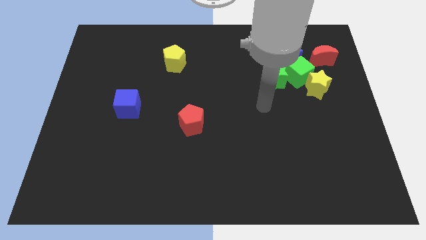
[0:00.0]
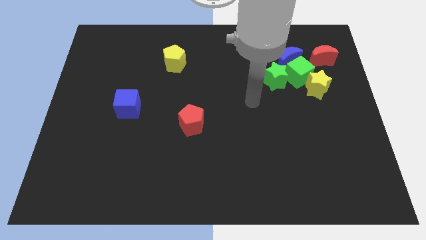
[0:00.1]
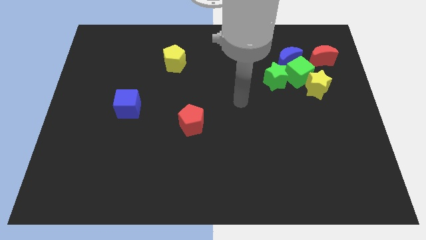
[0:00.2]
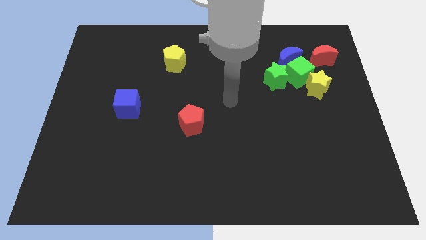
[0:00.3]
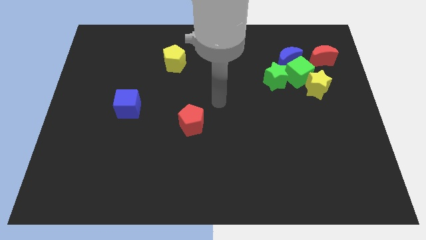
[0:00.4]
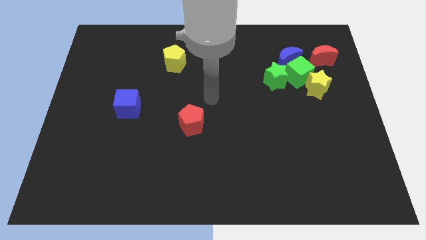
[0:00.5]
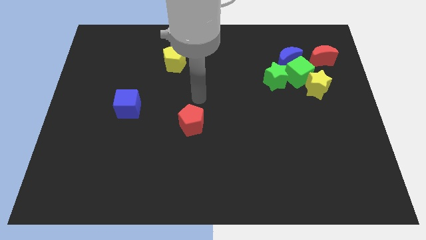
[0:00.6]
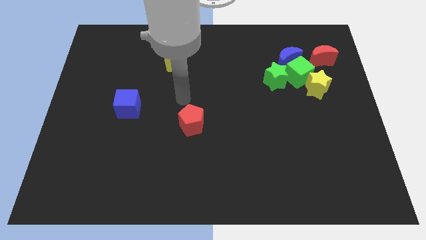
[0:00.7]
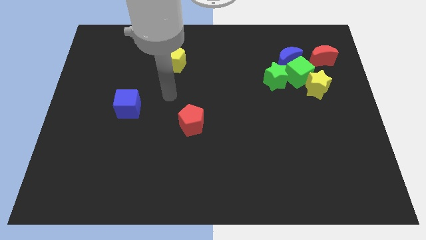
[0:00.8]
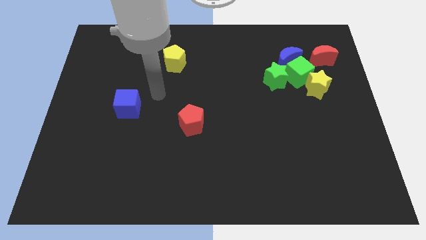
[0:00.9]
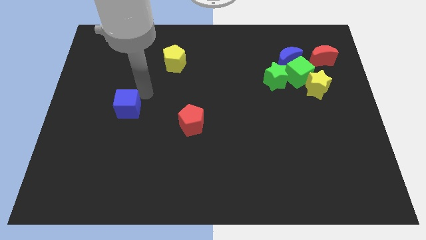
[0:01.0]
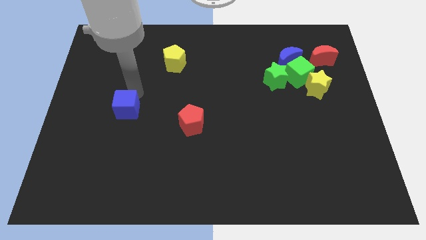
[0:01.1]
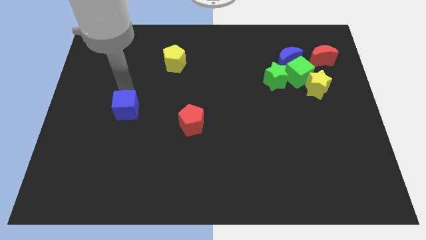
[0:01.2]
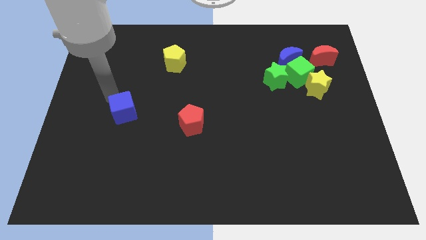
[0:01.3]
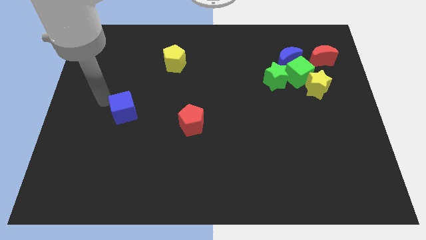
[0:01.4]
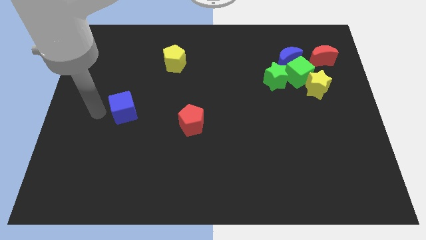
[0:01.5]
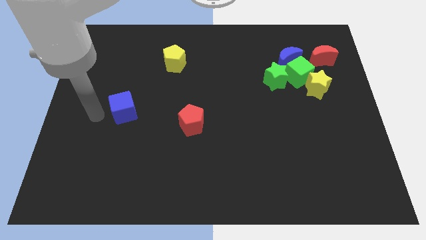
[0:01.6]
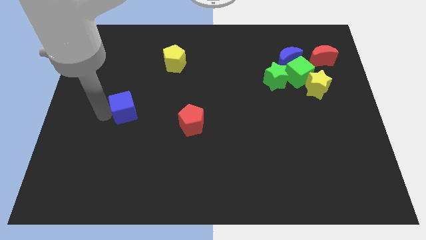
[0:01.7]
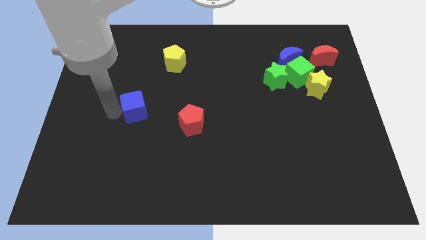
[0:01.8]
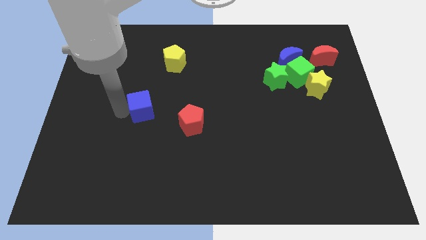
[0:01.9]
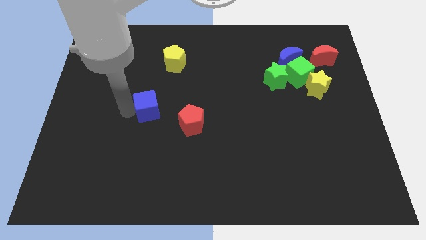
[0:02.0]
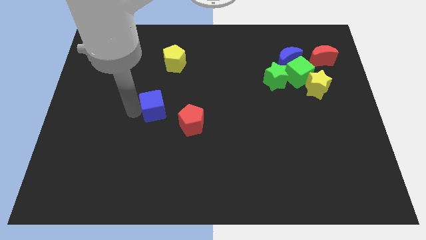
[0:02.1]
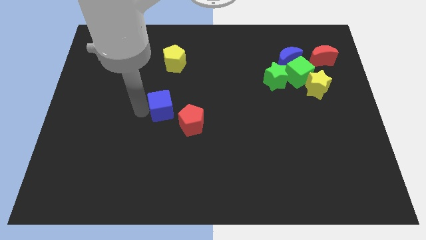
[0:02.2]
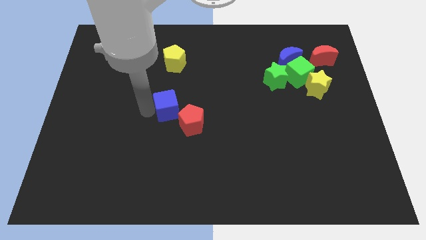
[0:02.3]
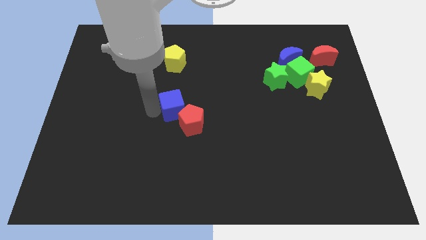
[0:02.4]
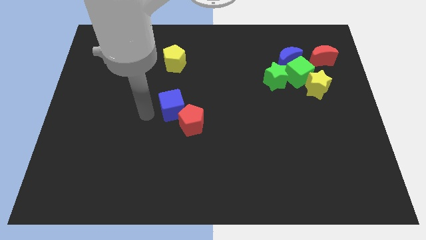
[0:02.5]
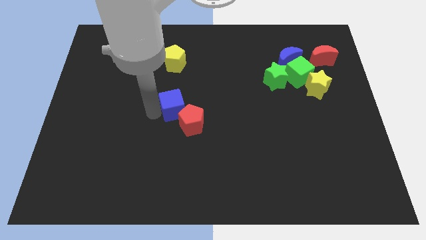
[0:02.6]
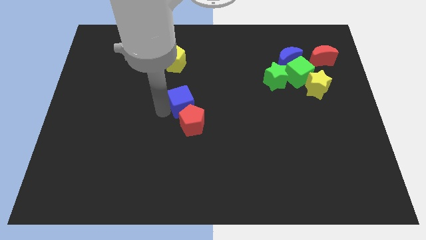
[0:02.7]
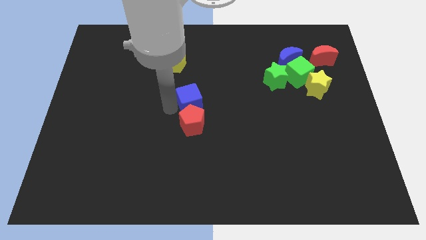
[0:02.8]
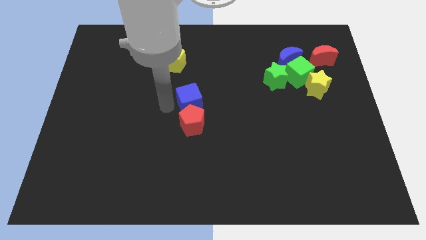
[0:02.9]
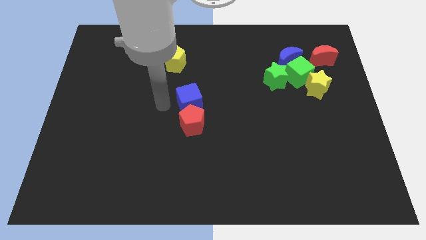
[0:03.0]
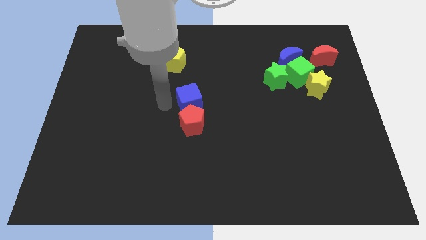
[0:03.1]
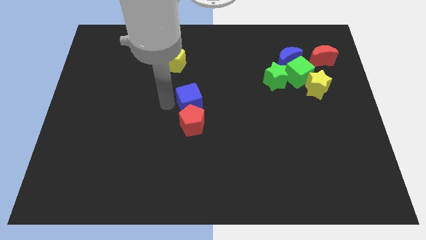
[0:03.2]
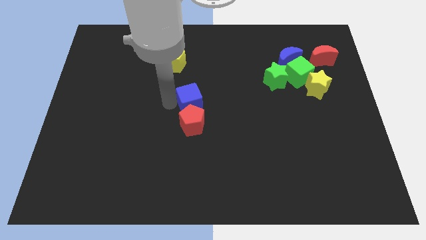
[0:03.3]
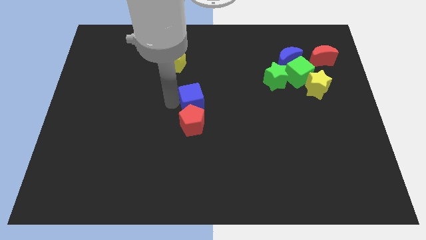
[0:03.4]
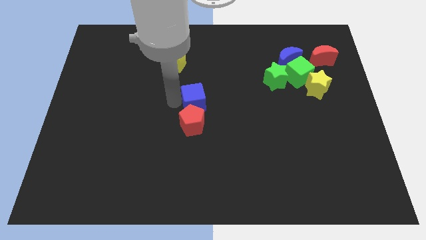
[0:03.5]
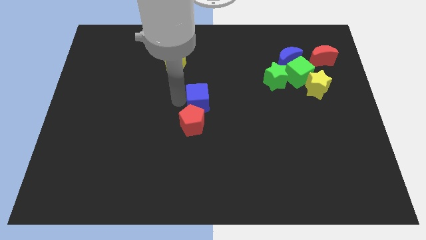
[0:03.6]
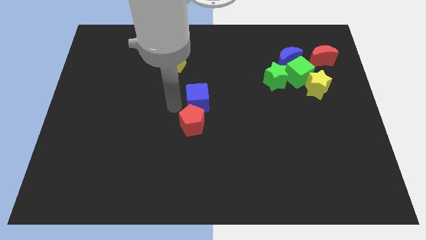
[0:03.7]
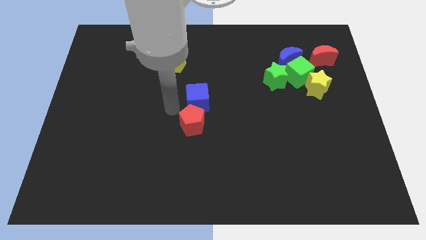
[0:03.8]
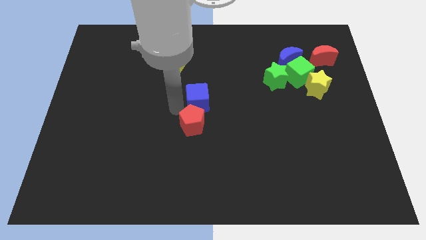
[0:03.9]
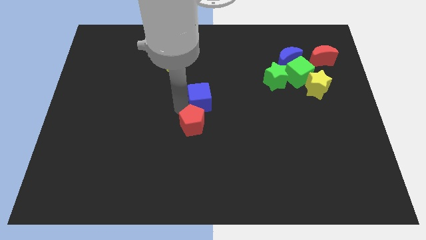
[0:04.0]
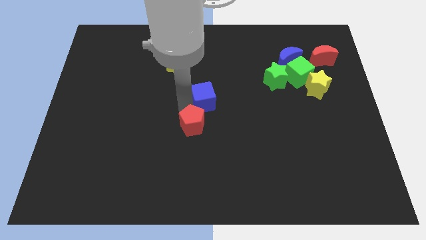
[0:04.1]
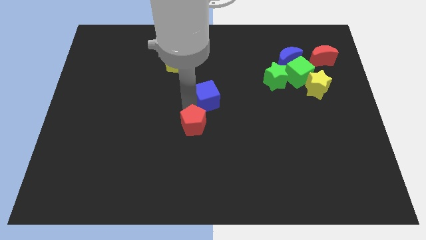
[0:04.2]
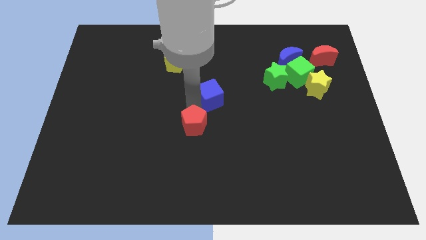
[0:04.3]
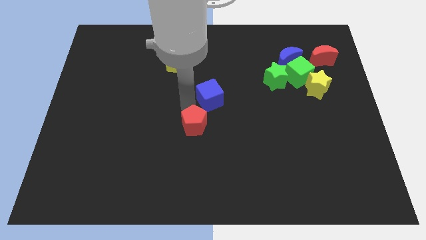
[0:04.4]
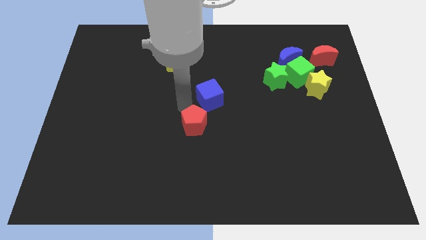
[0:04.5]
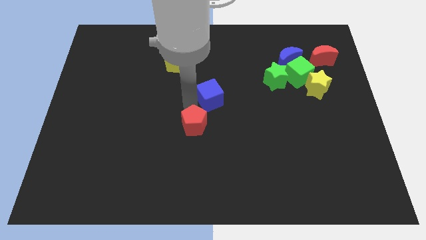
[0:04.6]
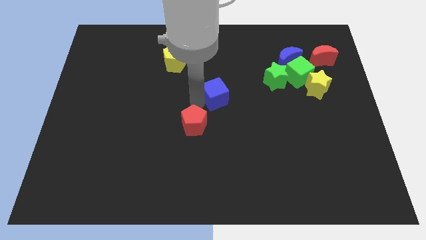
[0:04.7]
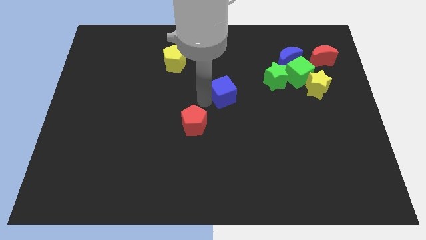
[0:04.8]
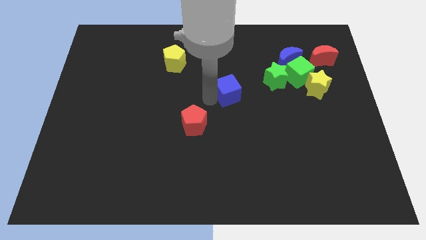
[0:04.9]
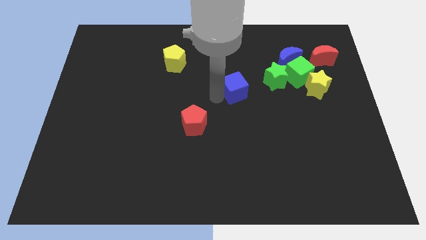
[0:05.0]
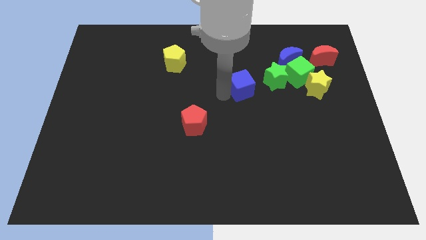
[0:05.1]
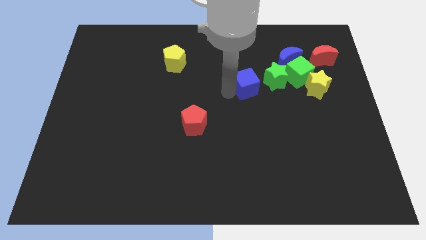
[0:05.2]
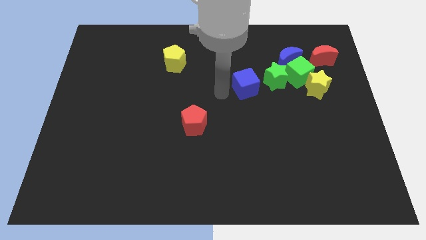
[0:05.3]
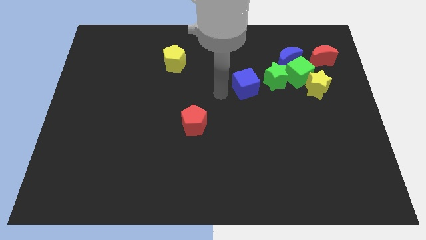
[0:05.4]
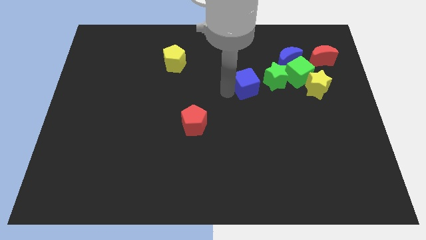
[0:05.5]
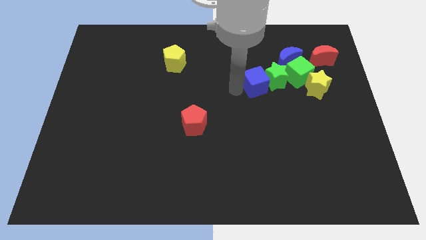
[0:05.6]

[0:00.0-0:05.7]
push the blue cube next to the green star
